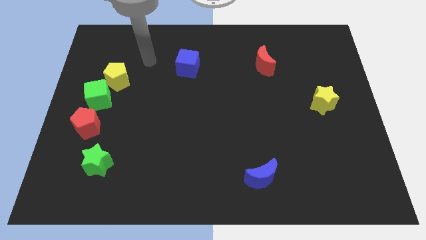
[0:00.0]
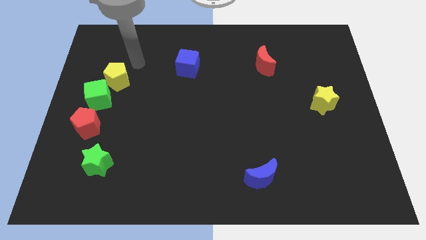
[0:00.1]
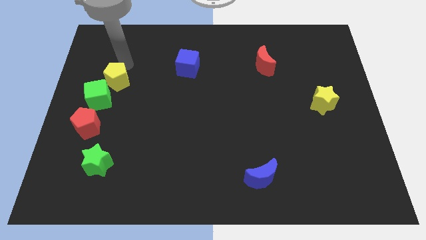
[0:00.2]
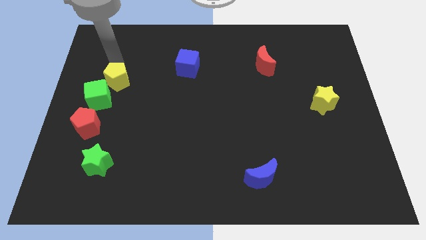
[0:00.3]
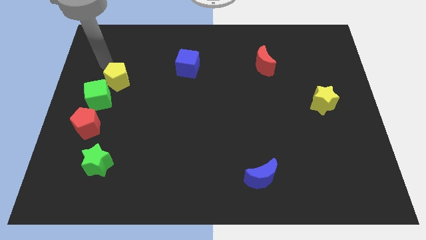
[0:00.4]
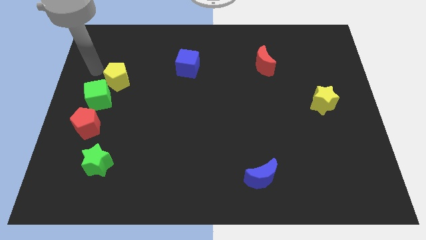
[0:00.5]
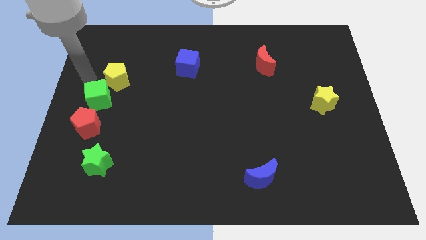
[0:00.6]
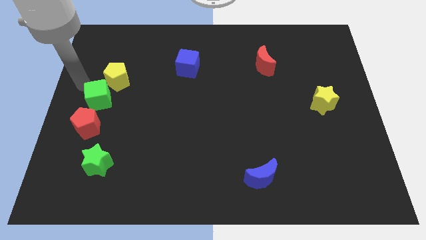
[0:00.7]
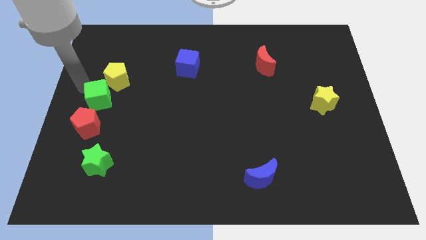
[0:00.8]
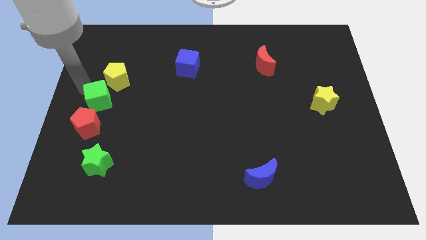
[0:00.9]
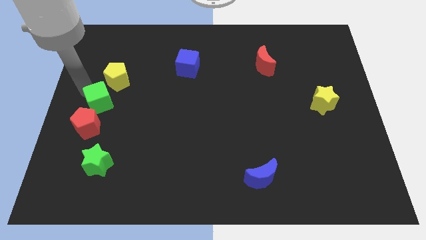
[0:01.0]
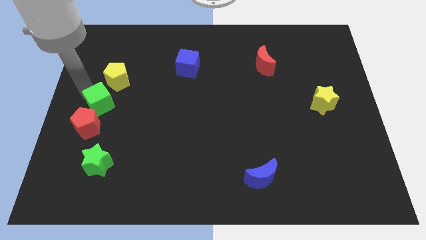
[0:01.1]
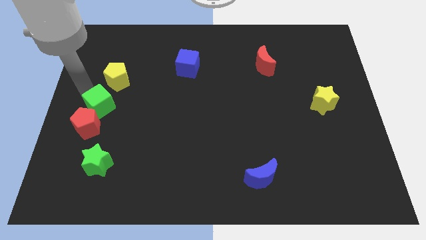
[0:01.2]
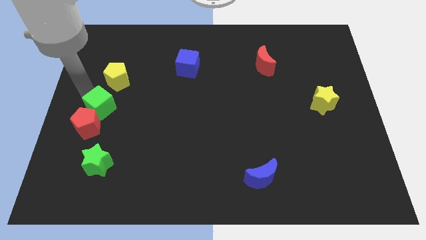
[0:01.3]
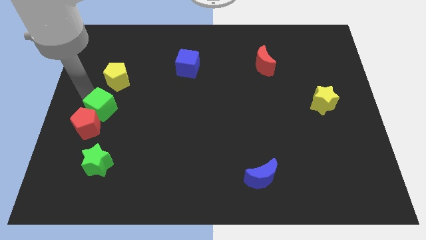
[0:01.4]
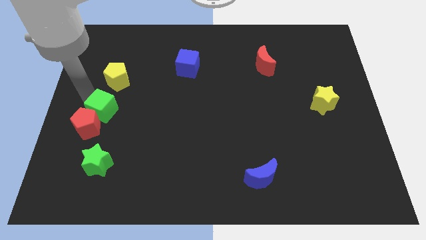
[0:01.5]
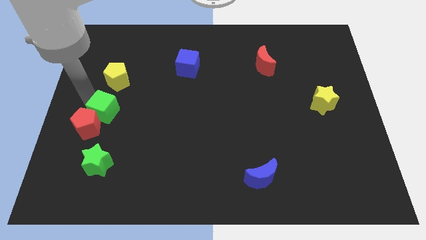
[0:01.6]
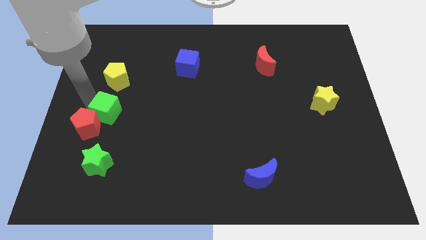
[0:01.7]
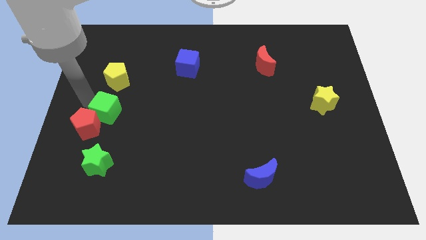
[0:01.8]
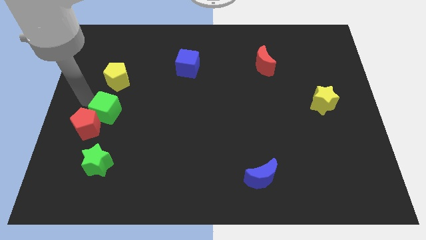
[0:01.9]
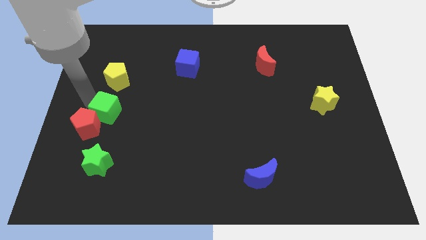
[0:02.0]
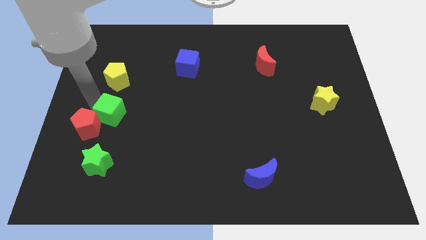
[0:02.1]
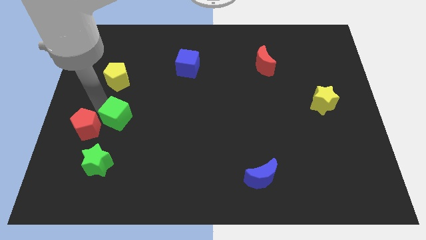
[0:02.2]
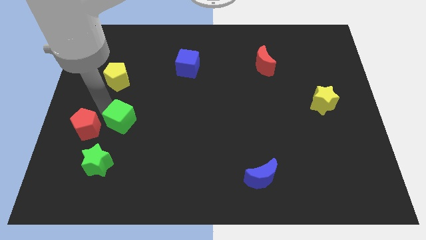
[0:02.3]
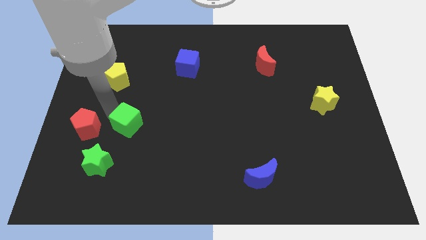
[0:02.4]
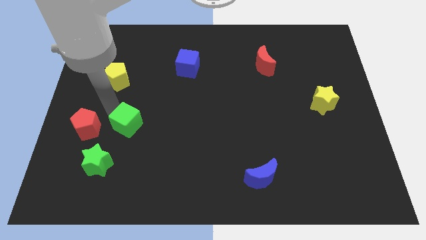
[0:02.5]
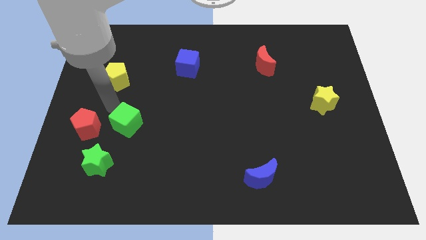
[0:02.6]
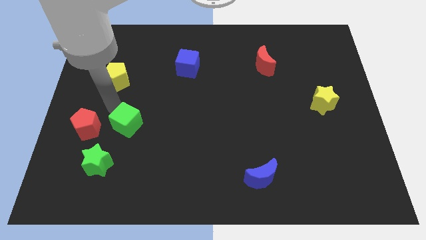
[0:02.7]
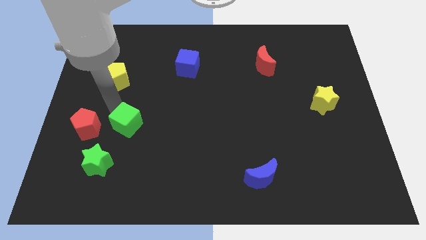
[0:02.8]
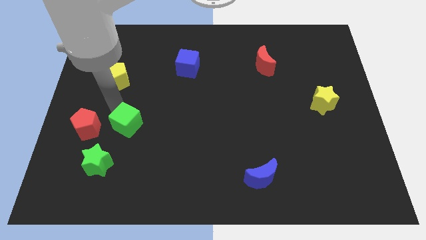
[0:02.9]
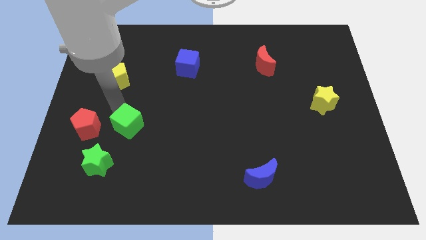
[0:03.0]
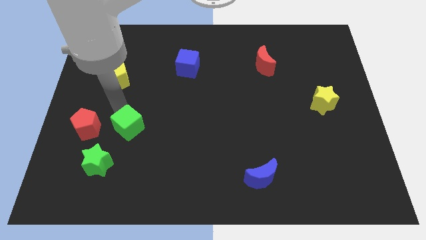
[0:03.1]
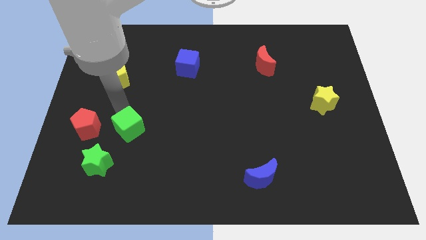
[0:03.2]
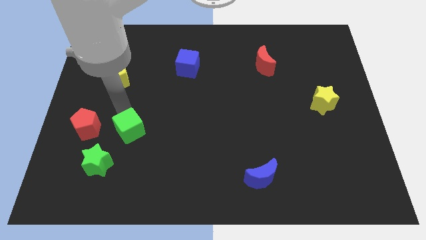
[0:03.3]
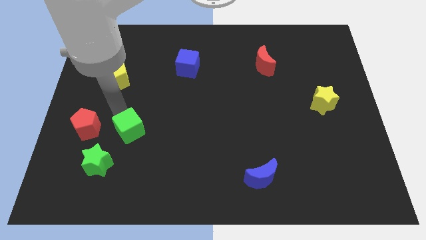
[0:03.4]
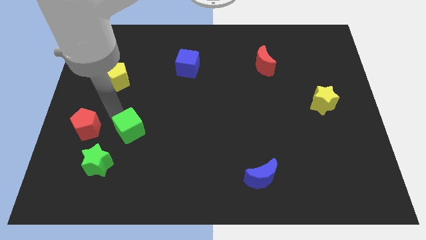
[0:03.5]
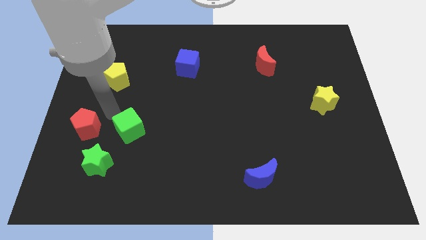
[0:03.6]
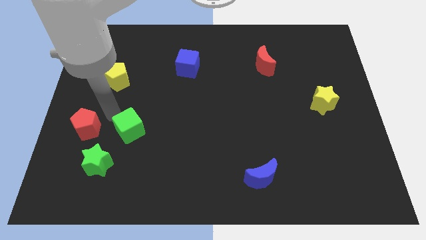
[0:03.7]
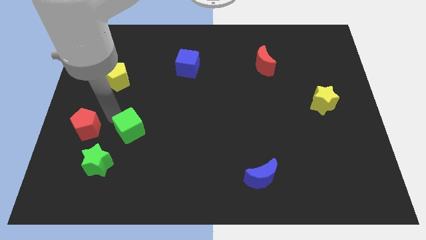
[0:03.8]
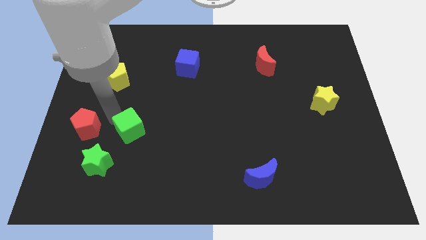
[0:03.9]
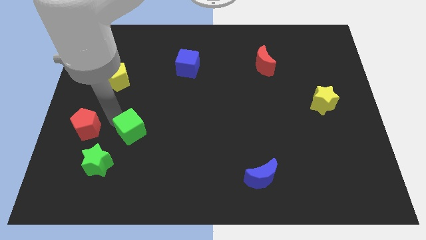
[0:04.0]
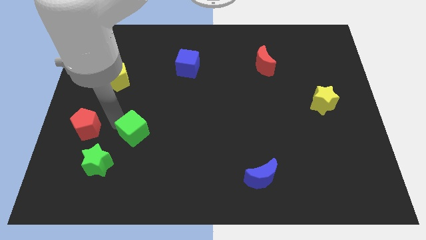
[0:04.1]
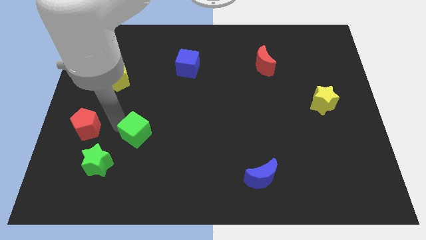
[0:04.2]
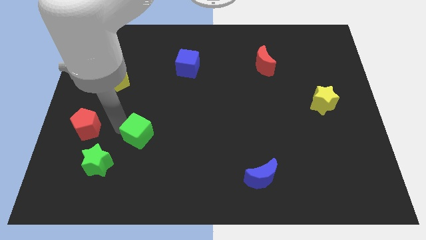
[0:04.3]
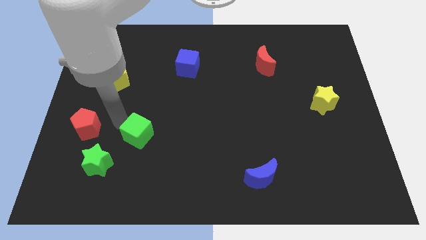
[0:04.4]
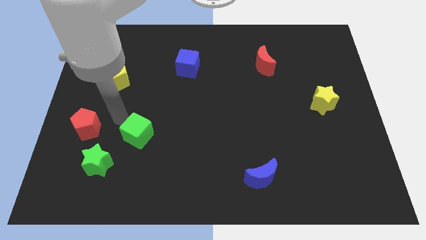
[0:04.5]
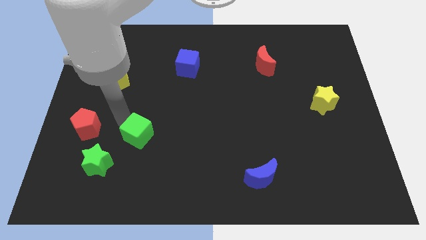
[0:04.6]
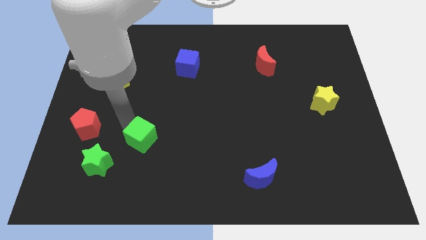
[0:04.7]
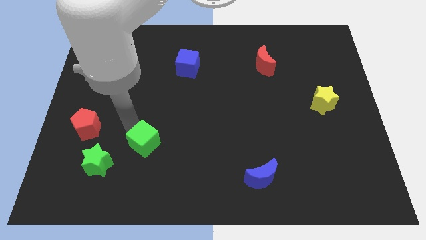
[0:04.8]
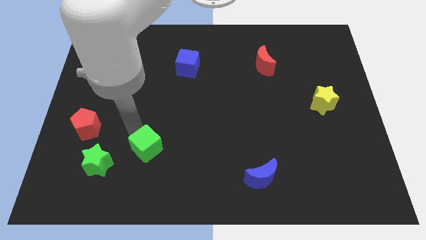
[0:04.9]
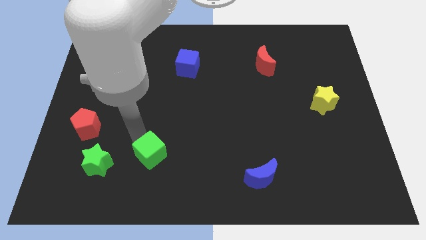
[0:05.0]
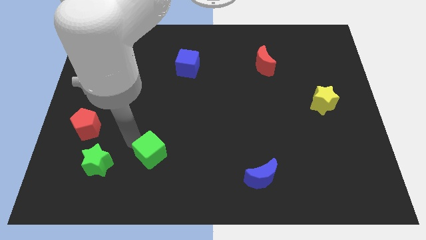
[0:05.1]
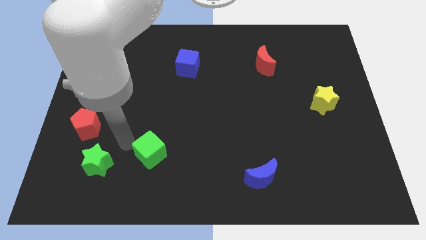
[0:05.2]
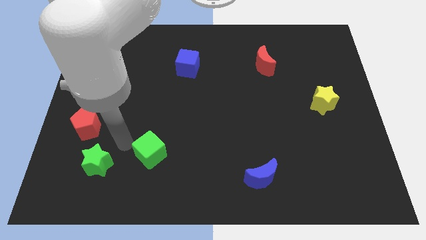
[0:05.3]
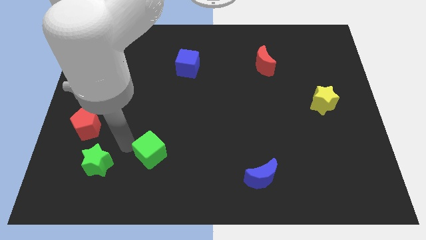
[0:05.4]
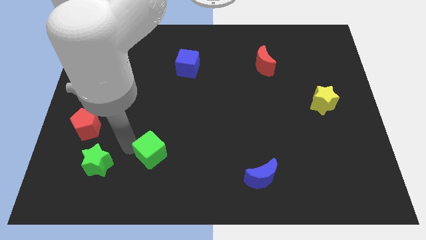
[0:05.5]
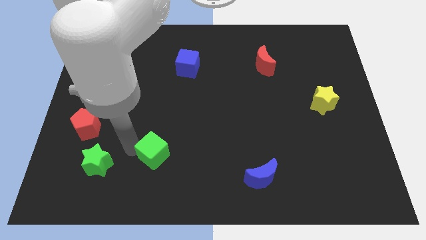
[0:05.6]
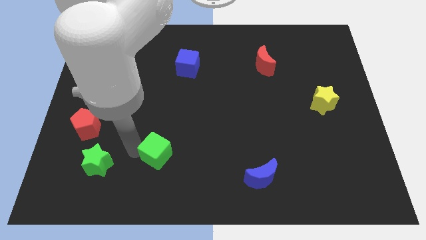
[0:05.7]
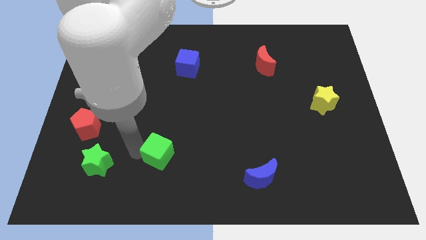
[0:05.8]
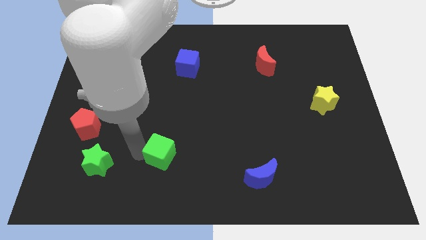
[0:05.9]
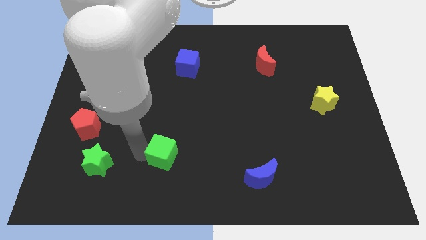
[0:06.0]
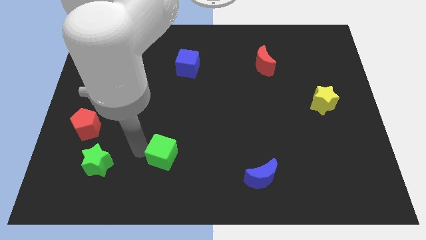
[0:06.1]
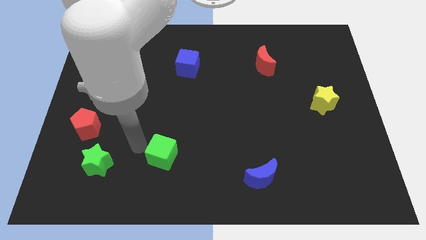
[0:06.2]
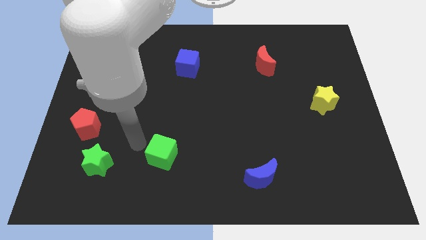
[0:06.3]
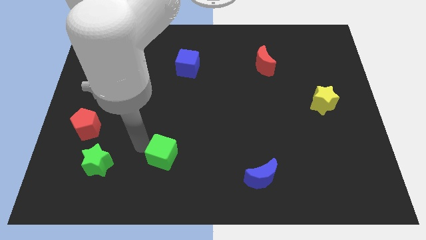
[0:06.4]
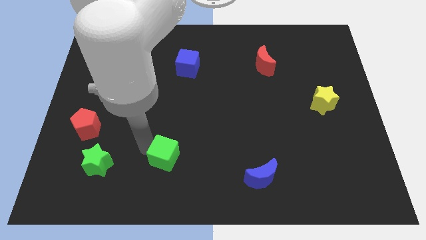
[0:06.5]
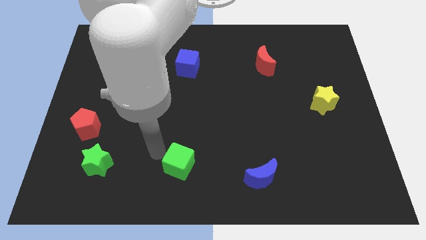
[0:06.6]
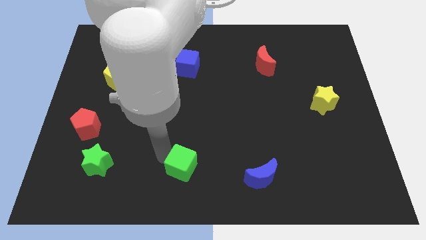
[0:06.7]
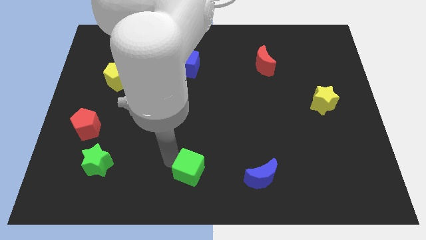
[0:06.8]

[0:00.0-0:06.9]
push the green cube left of the blue moon

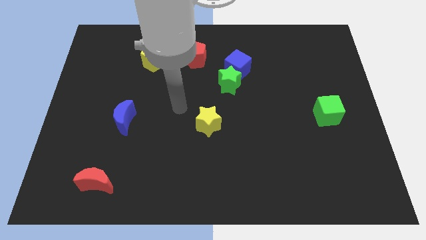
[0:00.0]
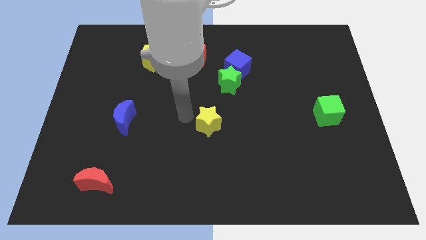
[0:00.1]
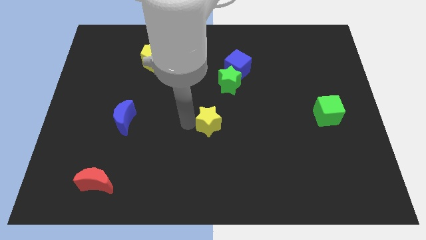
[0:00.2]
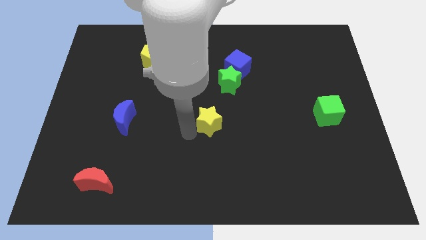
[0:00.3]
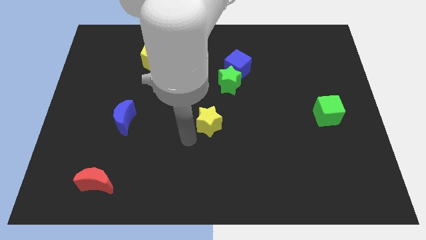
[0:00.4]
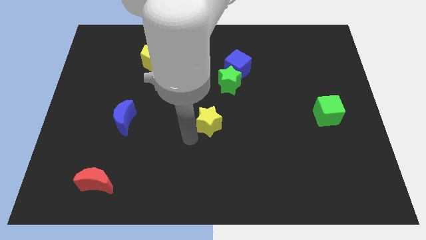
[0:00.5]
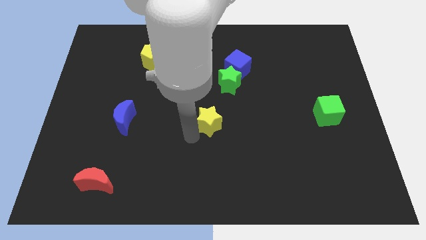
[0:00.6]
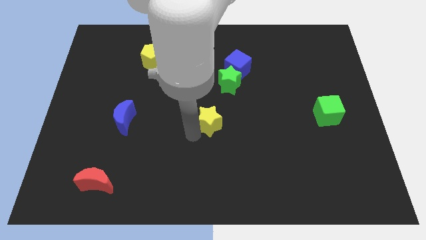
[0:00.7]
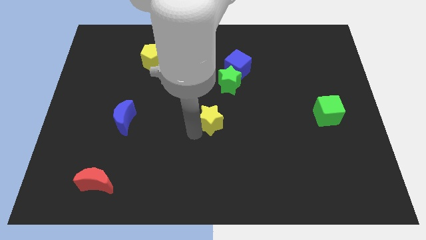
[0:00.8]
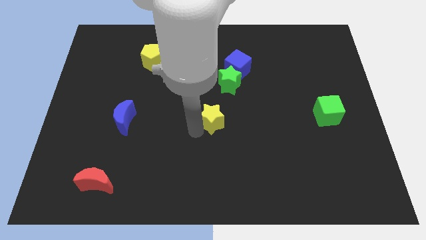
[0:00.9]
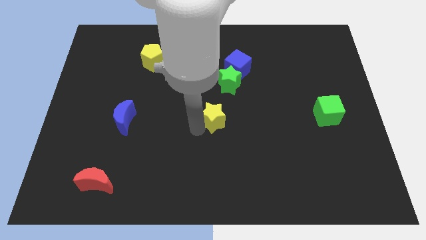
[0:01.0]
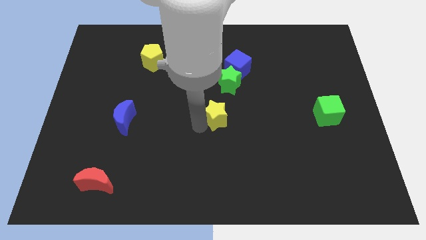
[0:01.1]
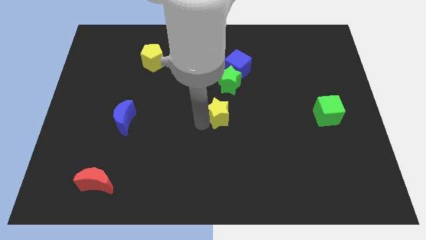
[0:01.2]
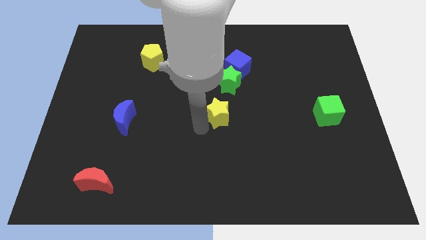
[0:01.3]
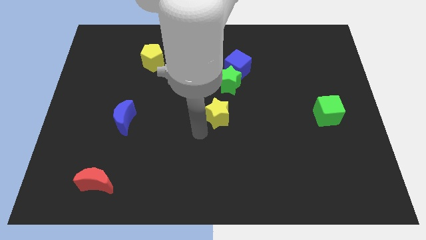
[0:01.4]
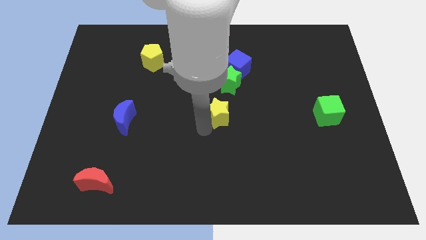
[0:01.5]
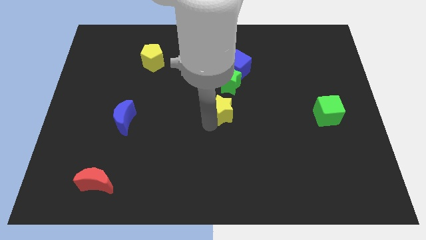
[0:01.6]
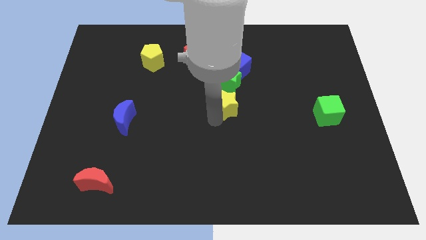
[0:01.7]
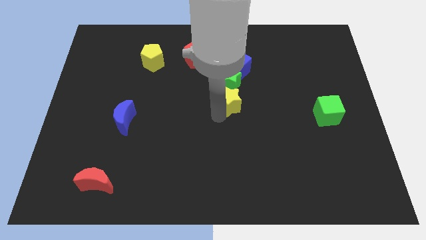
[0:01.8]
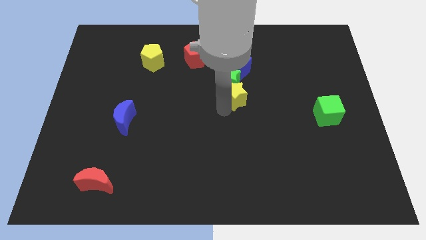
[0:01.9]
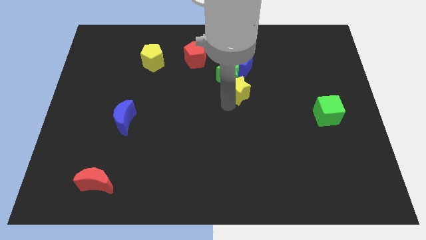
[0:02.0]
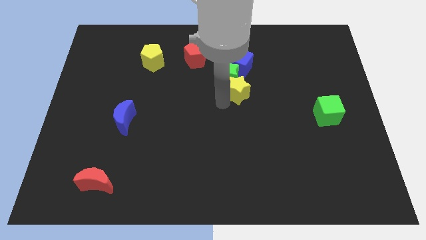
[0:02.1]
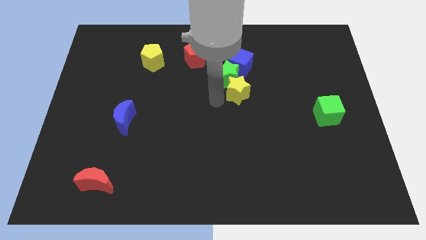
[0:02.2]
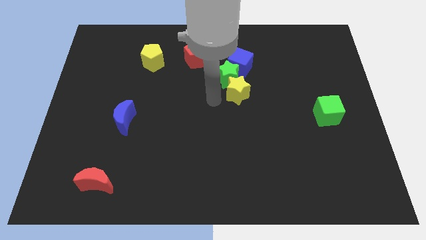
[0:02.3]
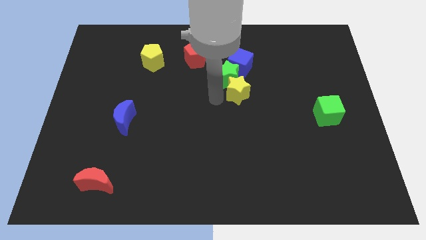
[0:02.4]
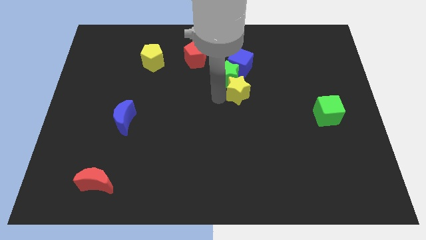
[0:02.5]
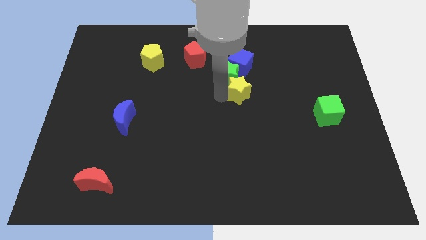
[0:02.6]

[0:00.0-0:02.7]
push the yellow star to the right of the green star
